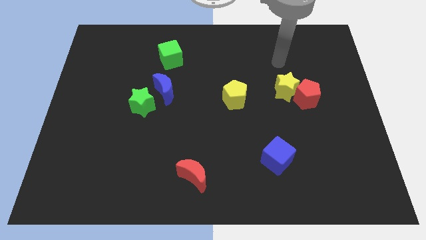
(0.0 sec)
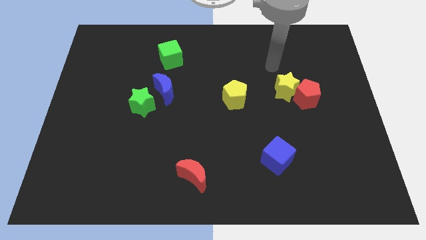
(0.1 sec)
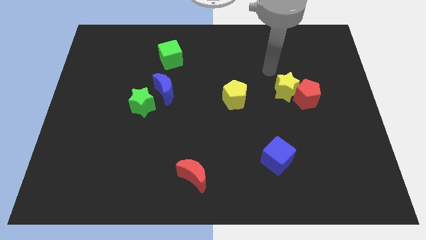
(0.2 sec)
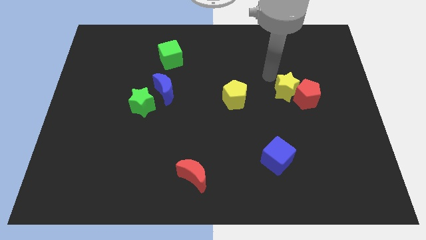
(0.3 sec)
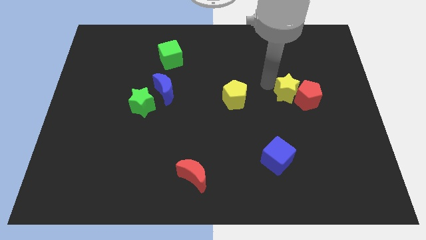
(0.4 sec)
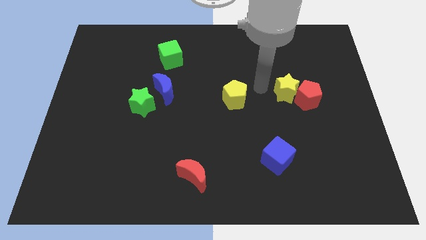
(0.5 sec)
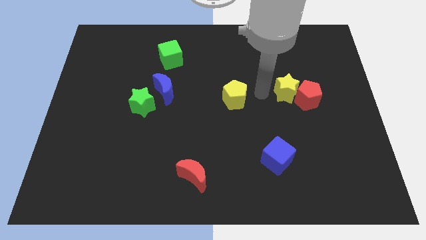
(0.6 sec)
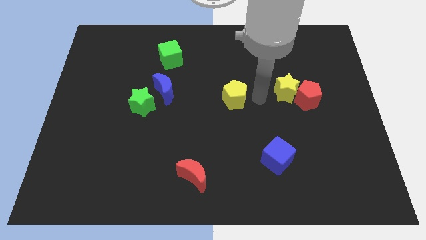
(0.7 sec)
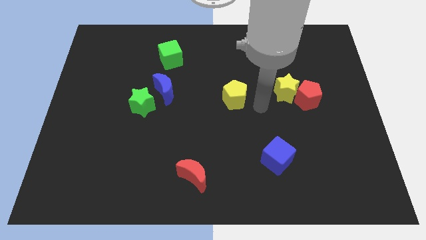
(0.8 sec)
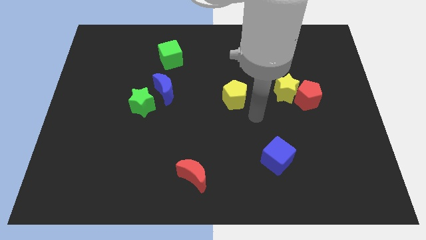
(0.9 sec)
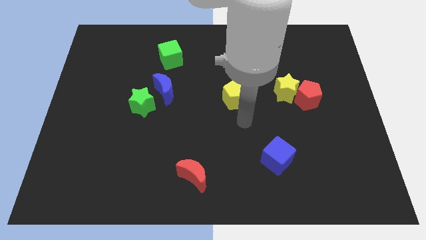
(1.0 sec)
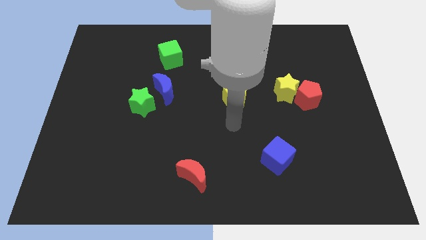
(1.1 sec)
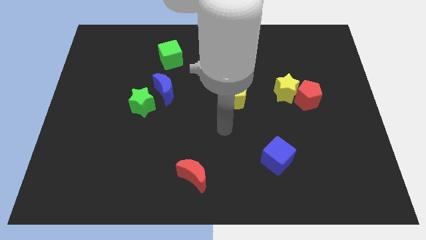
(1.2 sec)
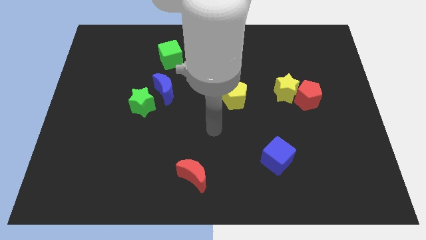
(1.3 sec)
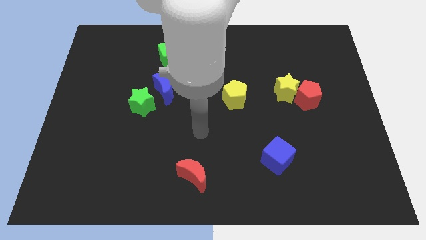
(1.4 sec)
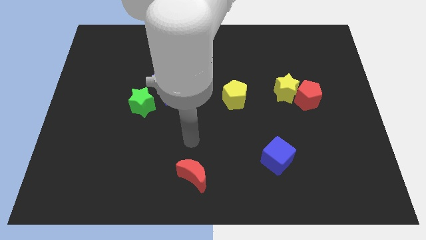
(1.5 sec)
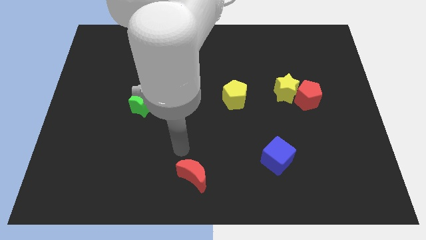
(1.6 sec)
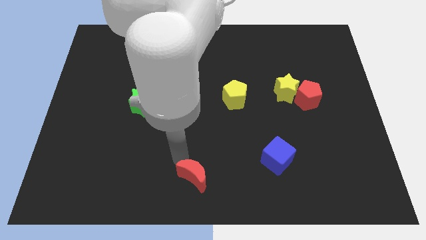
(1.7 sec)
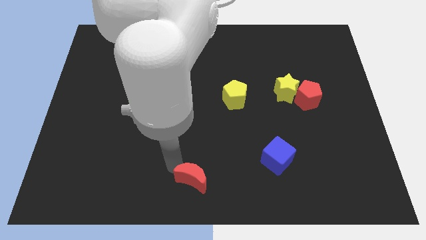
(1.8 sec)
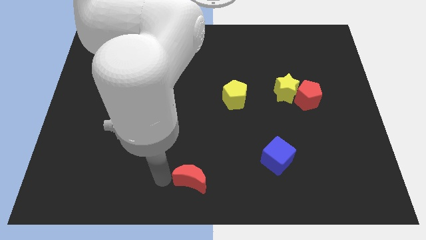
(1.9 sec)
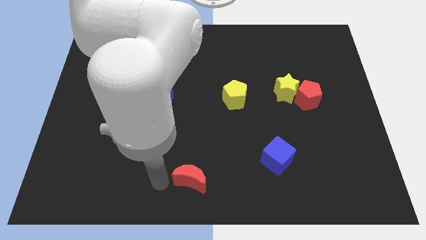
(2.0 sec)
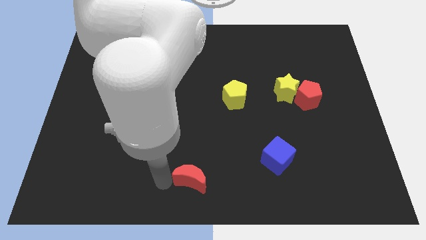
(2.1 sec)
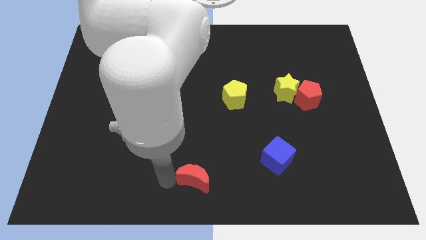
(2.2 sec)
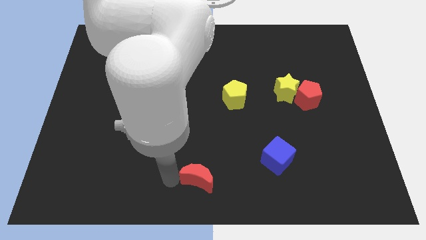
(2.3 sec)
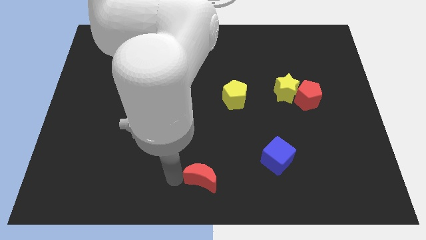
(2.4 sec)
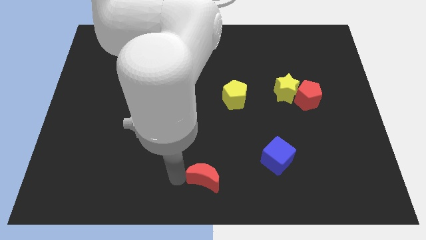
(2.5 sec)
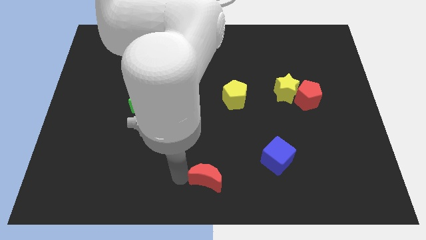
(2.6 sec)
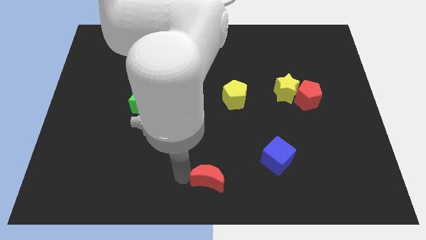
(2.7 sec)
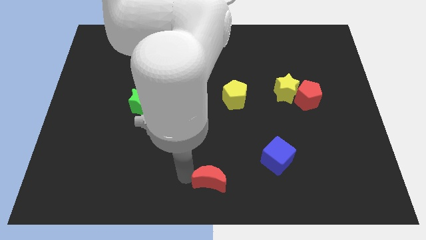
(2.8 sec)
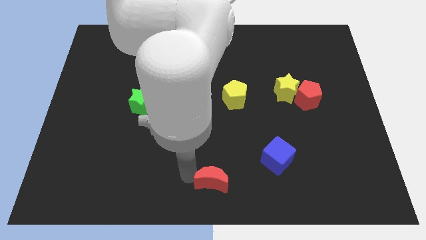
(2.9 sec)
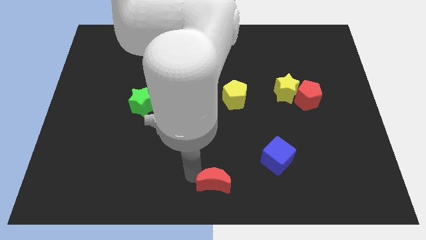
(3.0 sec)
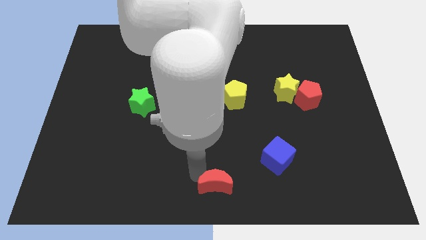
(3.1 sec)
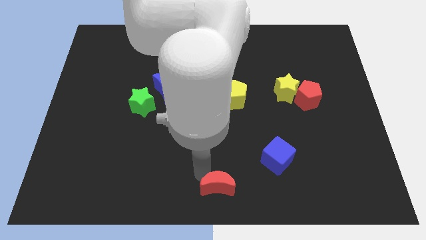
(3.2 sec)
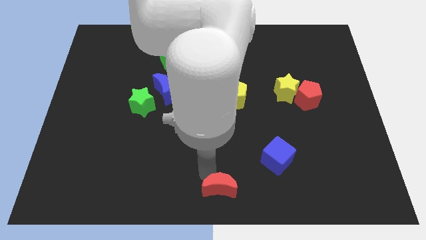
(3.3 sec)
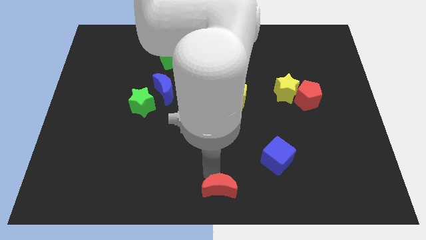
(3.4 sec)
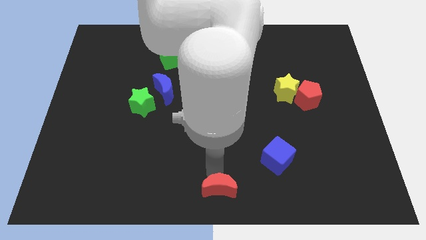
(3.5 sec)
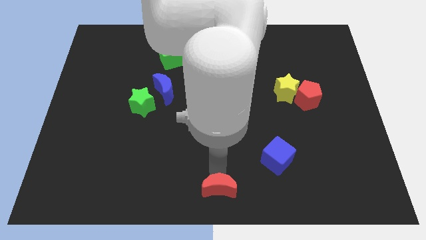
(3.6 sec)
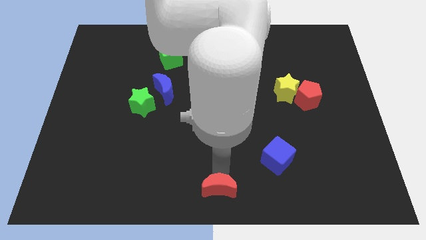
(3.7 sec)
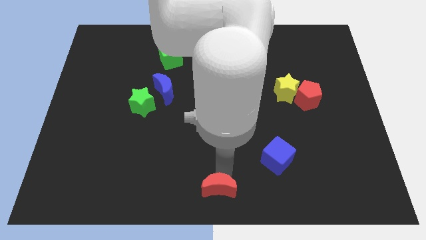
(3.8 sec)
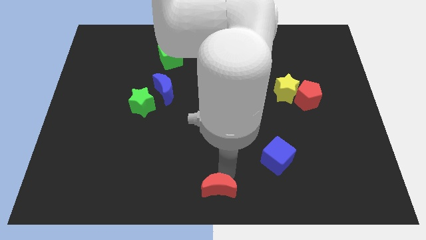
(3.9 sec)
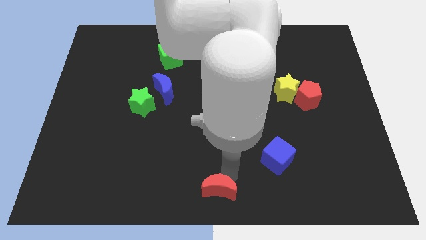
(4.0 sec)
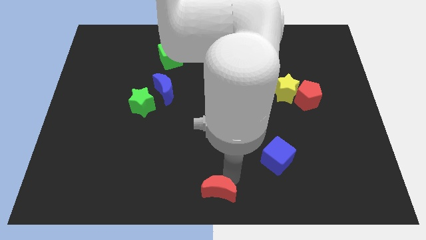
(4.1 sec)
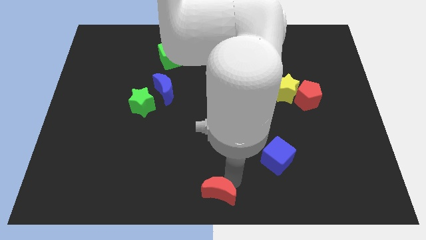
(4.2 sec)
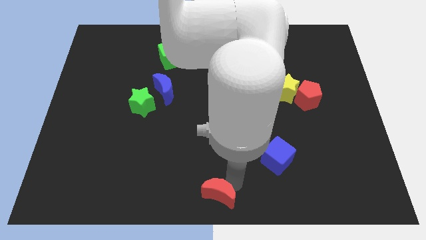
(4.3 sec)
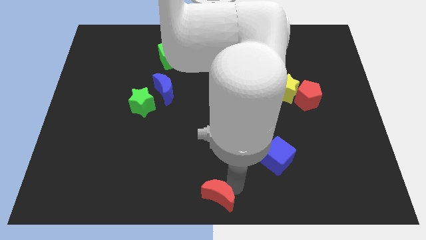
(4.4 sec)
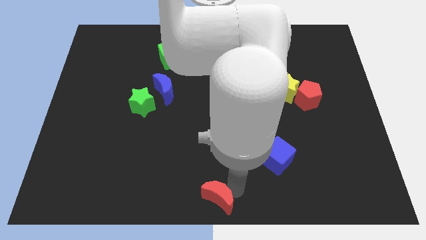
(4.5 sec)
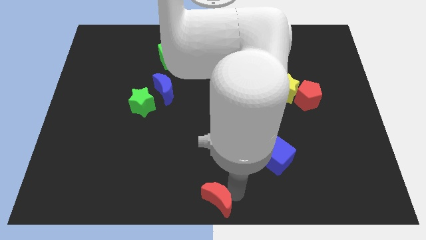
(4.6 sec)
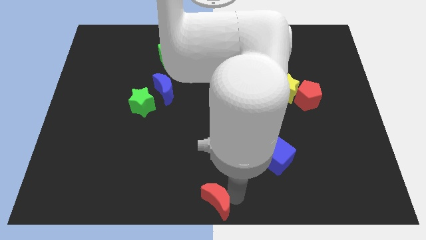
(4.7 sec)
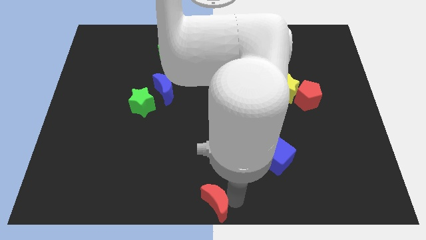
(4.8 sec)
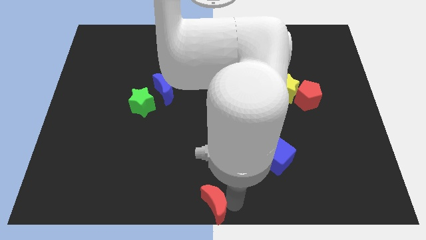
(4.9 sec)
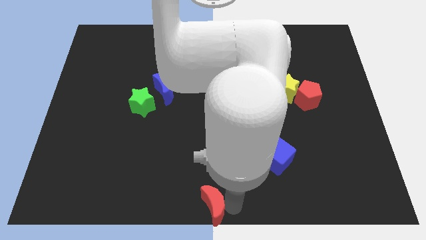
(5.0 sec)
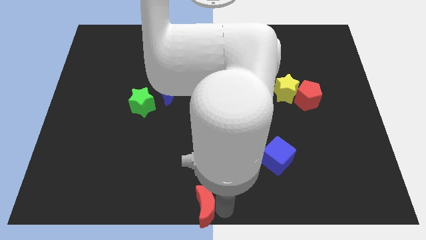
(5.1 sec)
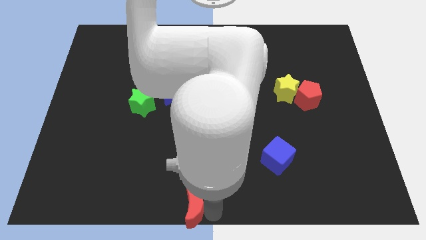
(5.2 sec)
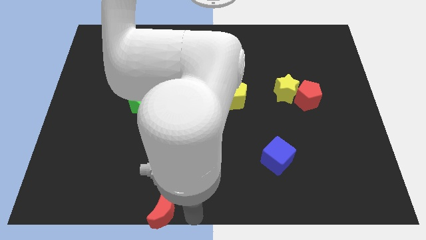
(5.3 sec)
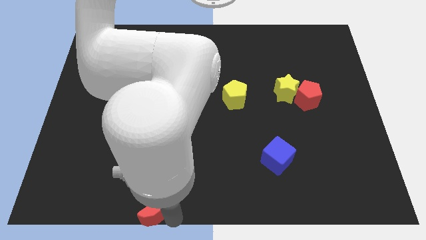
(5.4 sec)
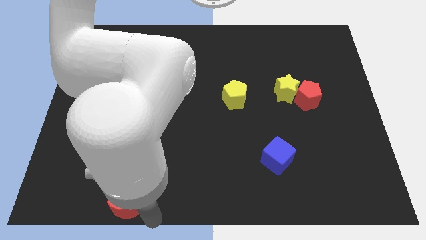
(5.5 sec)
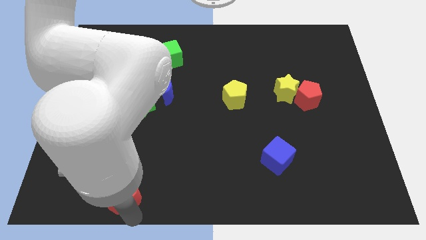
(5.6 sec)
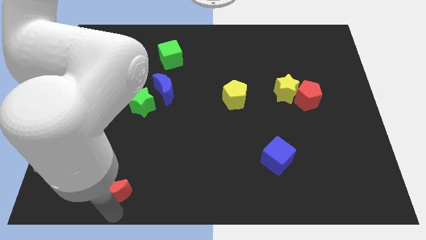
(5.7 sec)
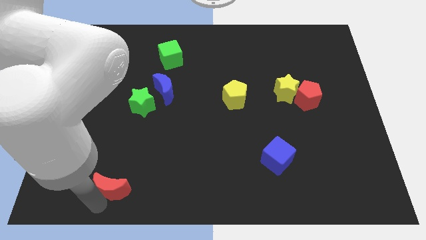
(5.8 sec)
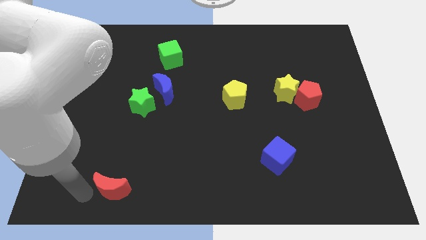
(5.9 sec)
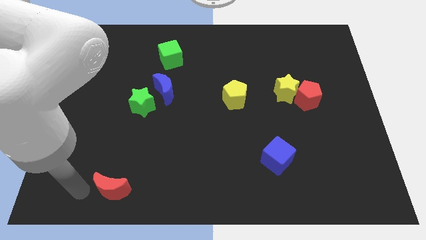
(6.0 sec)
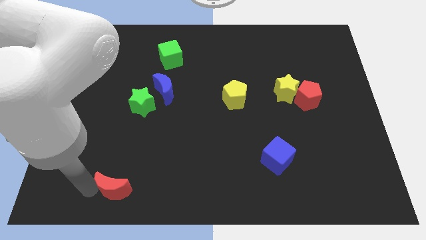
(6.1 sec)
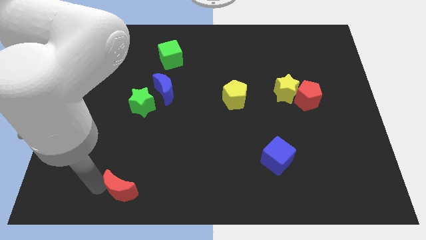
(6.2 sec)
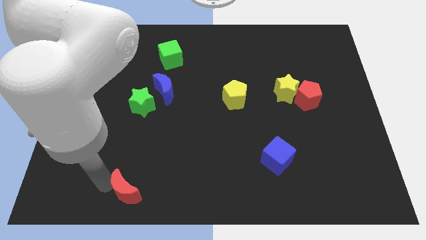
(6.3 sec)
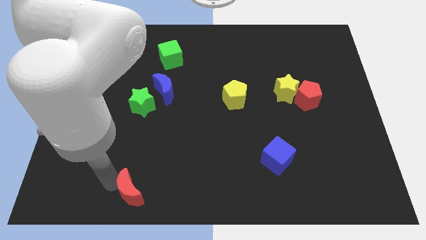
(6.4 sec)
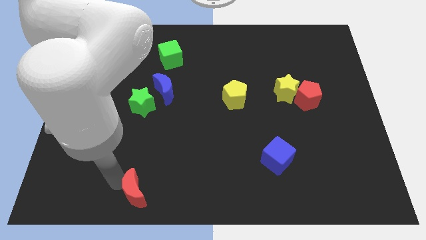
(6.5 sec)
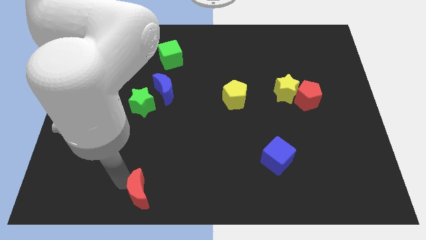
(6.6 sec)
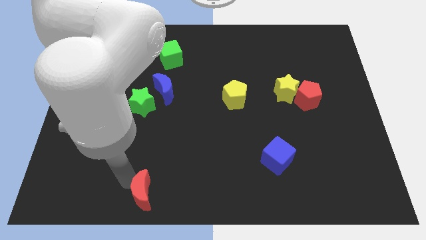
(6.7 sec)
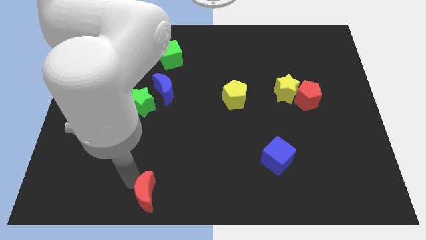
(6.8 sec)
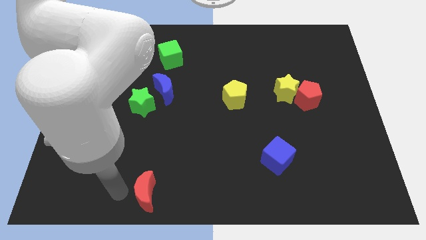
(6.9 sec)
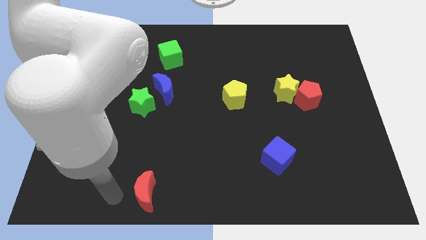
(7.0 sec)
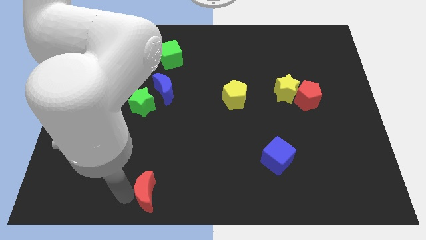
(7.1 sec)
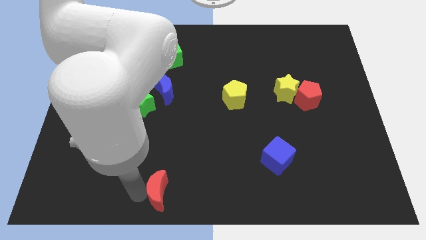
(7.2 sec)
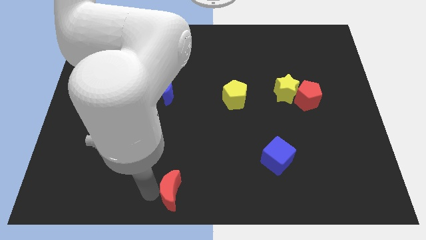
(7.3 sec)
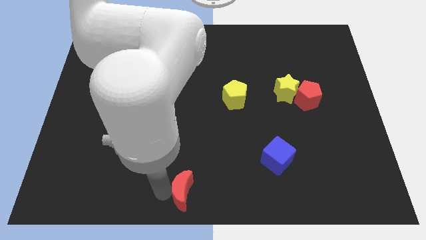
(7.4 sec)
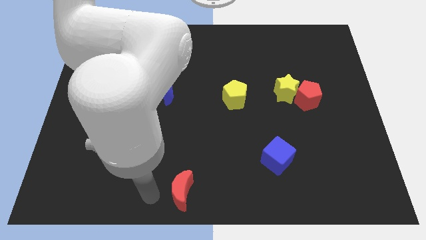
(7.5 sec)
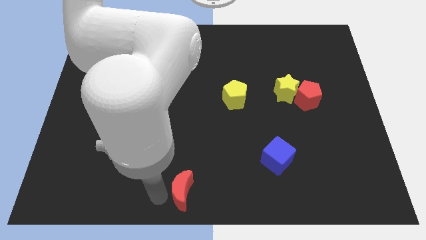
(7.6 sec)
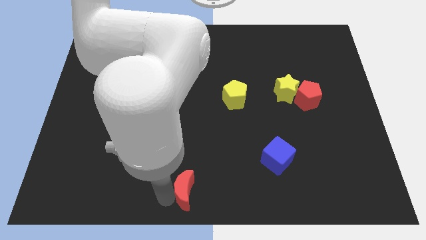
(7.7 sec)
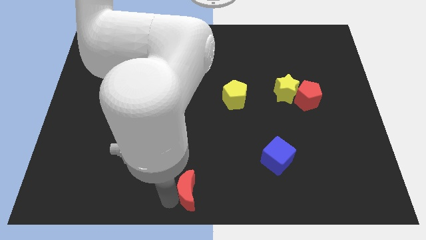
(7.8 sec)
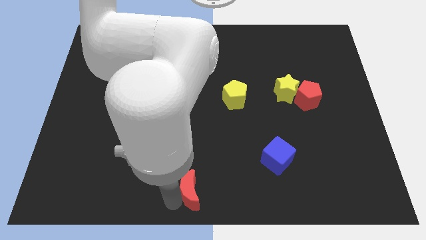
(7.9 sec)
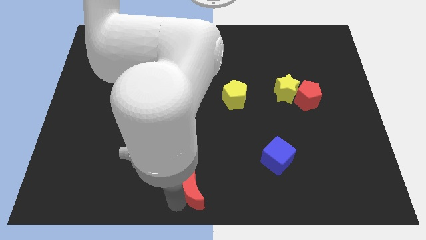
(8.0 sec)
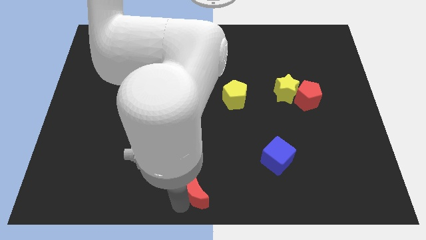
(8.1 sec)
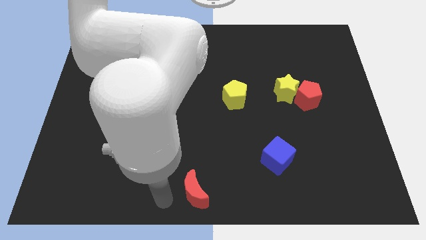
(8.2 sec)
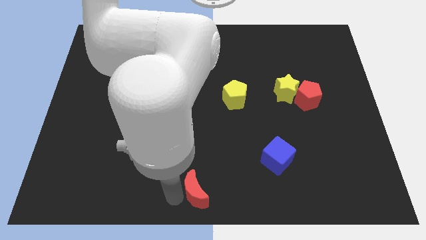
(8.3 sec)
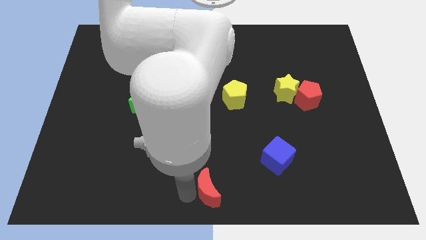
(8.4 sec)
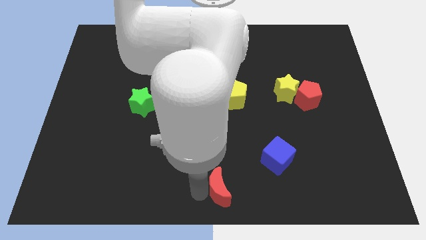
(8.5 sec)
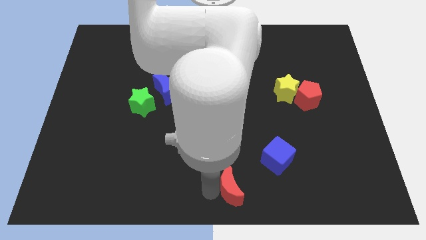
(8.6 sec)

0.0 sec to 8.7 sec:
move the red moon to the right somewhat
